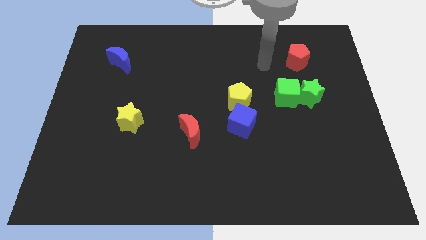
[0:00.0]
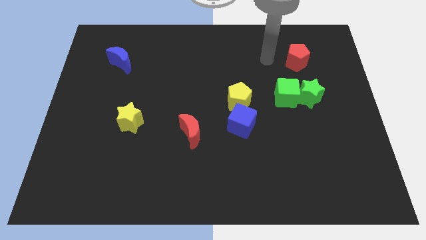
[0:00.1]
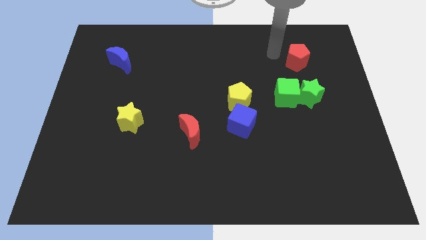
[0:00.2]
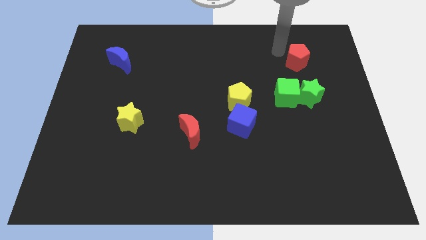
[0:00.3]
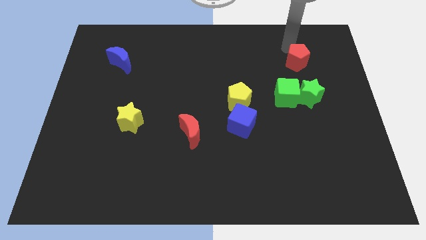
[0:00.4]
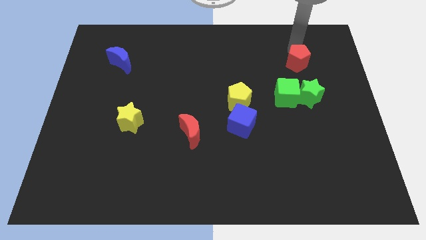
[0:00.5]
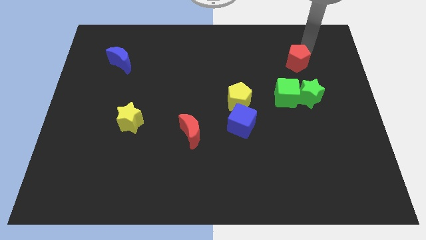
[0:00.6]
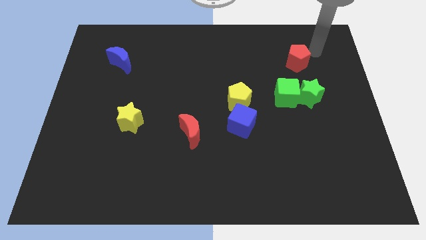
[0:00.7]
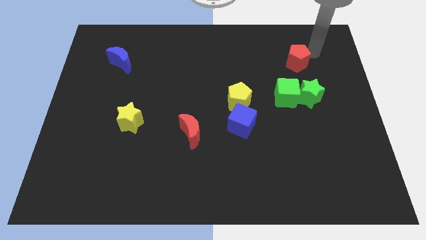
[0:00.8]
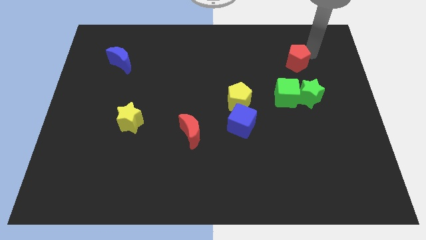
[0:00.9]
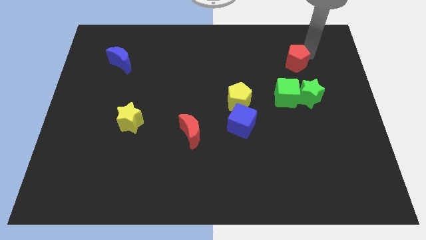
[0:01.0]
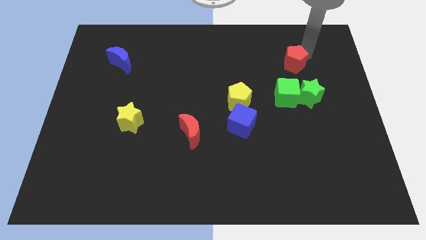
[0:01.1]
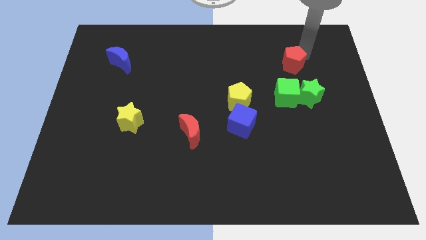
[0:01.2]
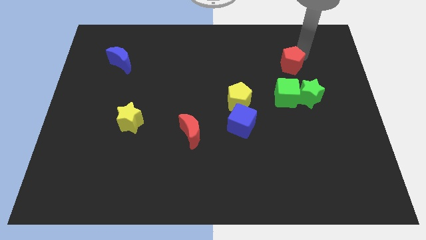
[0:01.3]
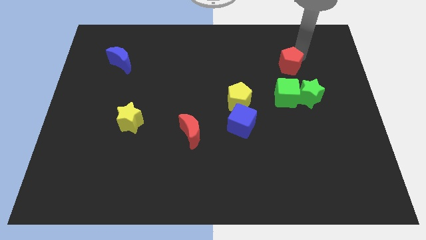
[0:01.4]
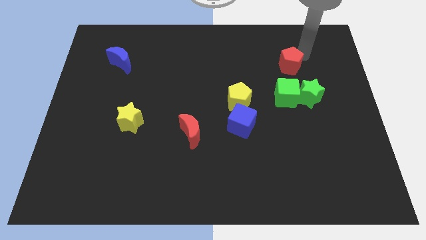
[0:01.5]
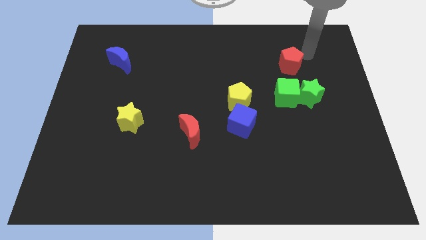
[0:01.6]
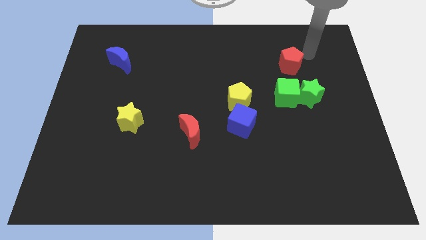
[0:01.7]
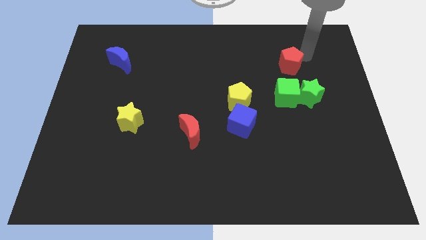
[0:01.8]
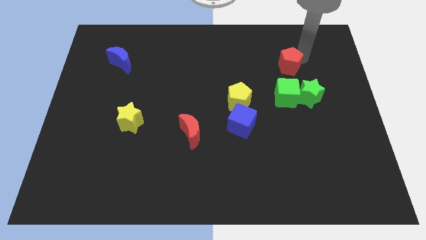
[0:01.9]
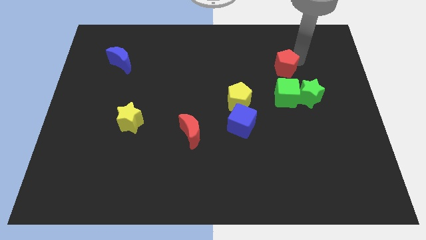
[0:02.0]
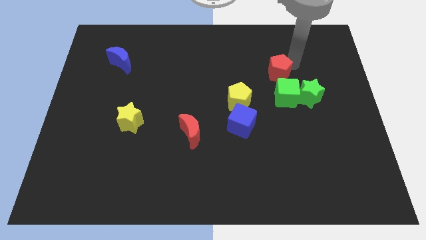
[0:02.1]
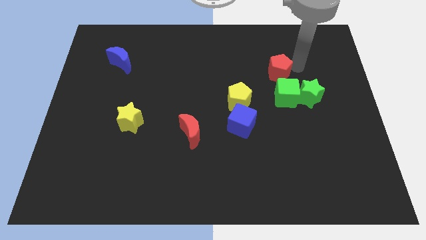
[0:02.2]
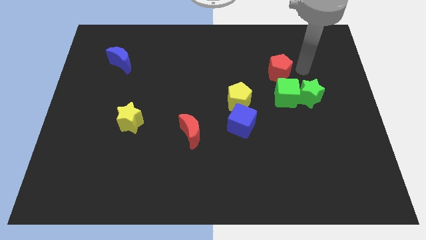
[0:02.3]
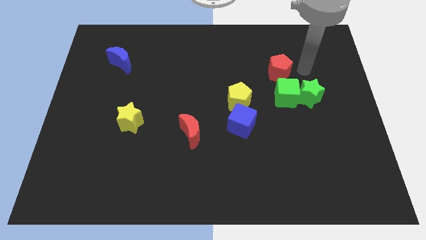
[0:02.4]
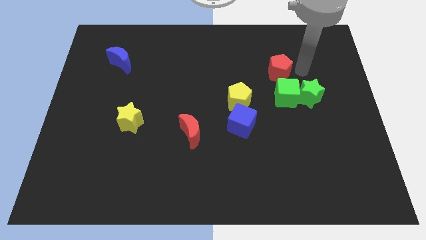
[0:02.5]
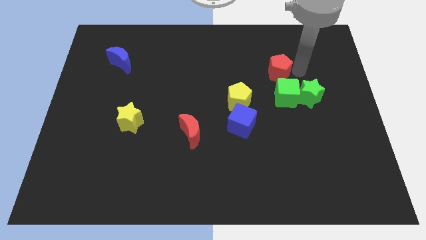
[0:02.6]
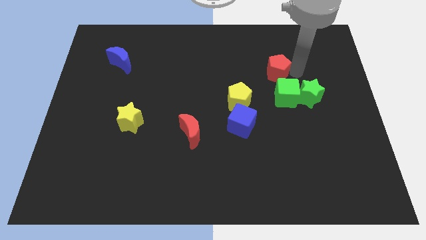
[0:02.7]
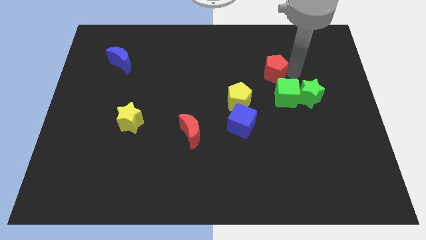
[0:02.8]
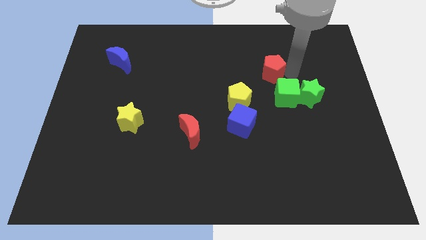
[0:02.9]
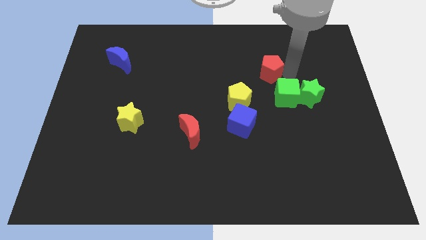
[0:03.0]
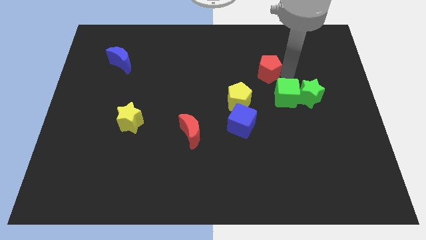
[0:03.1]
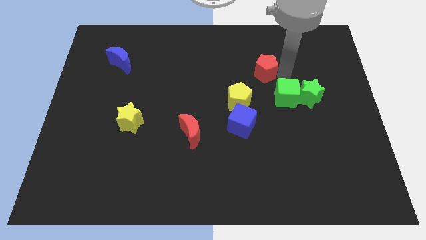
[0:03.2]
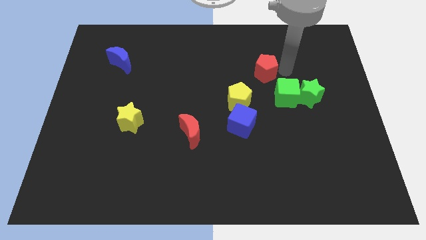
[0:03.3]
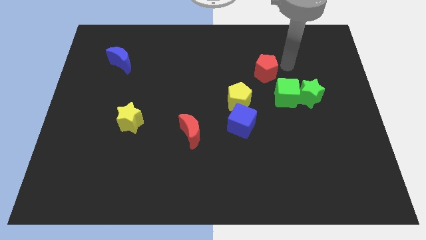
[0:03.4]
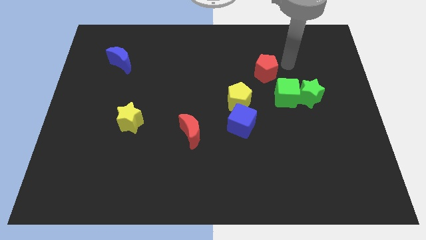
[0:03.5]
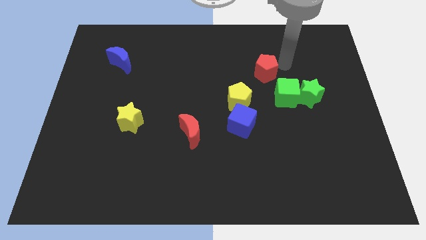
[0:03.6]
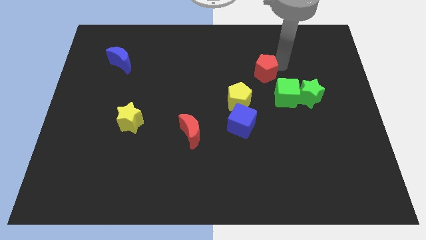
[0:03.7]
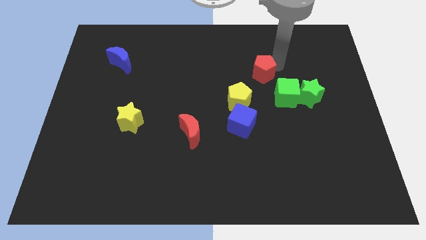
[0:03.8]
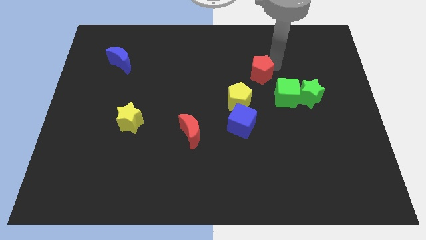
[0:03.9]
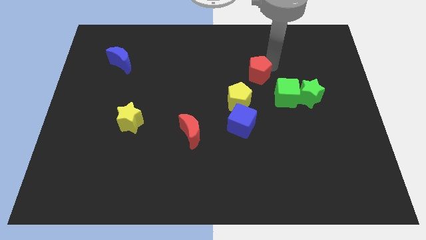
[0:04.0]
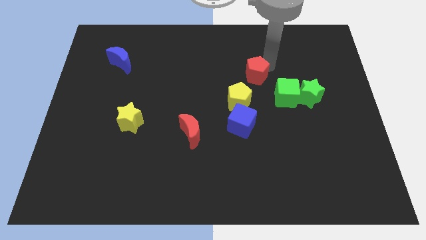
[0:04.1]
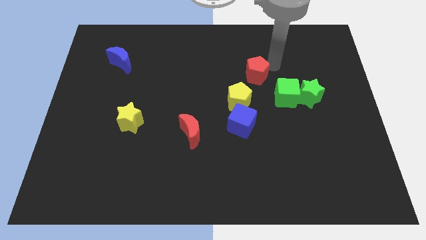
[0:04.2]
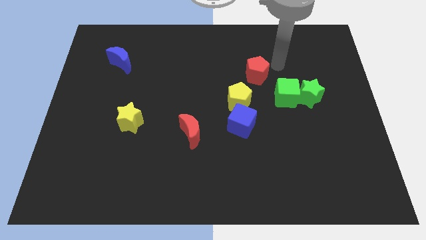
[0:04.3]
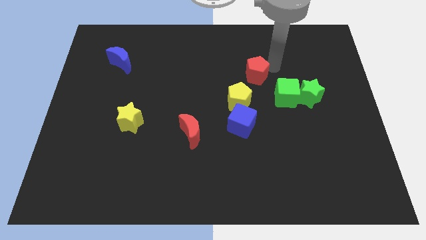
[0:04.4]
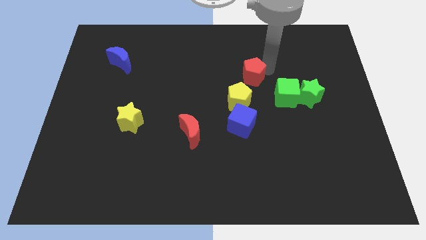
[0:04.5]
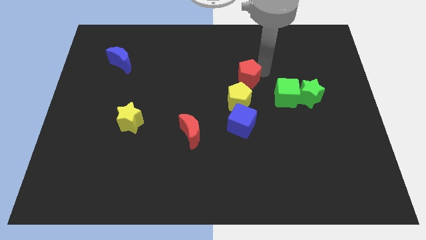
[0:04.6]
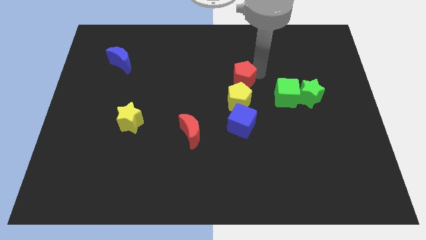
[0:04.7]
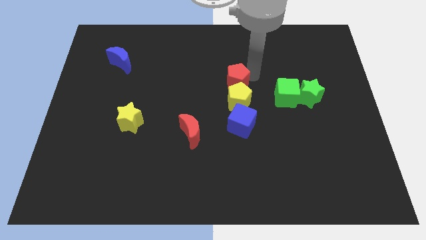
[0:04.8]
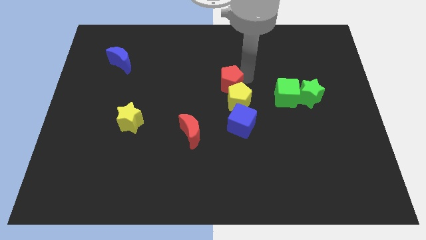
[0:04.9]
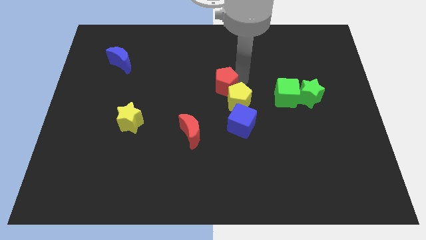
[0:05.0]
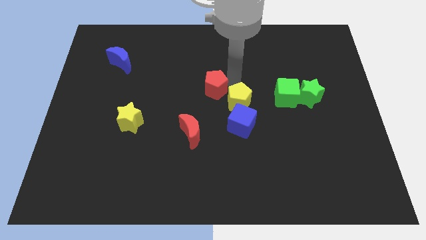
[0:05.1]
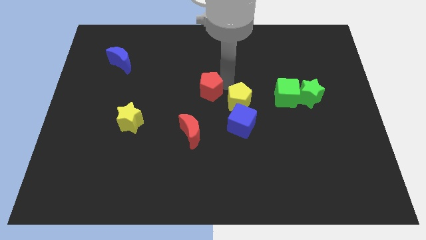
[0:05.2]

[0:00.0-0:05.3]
put the red pentagon to the top of the red moon

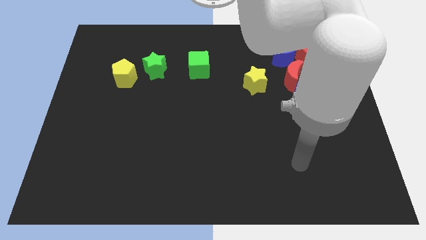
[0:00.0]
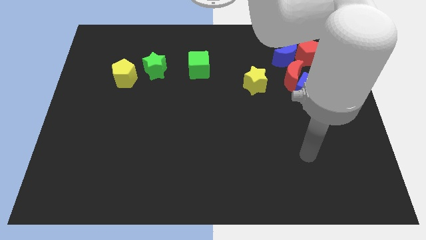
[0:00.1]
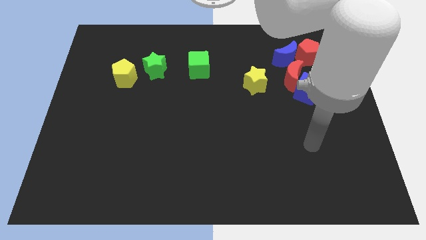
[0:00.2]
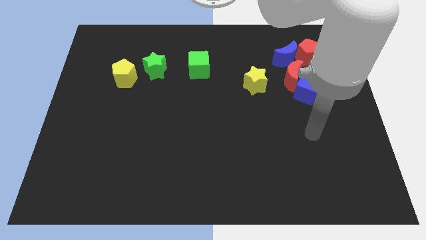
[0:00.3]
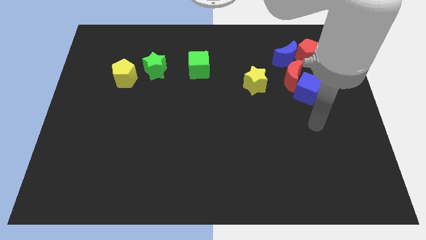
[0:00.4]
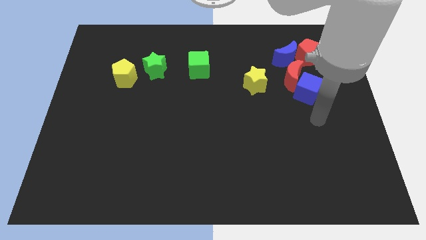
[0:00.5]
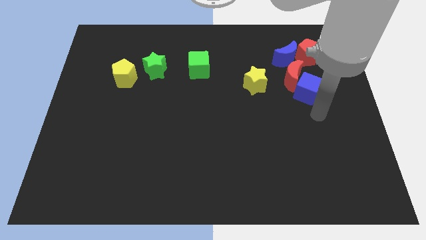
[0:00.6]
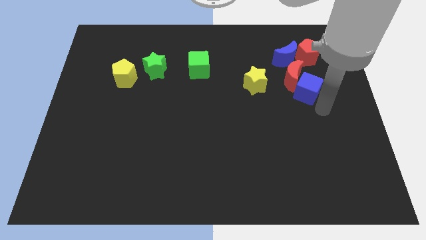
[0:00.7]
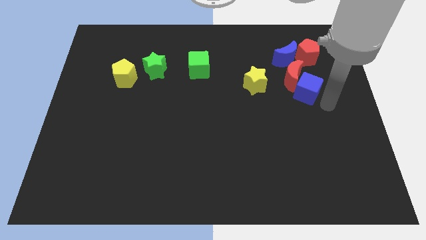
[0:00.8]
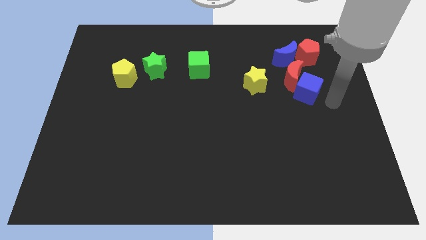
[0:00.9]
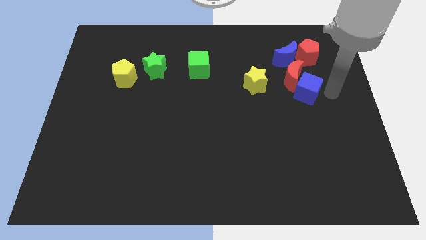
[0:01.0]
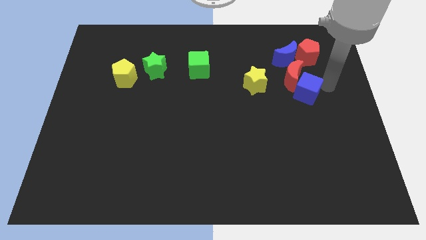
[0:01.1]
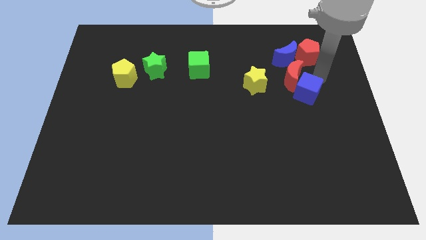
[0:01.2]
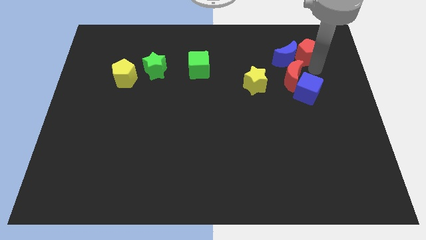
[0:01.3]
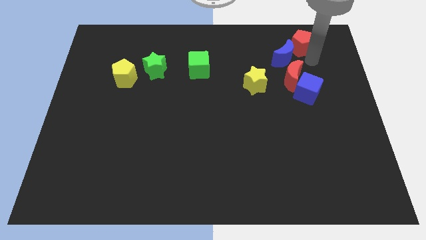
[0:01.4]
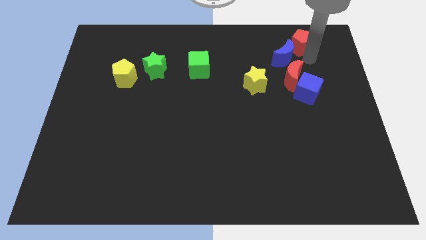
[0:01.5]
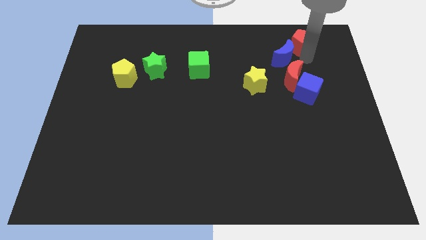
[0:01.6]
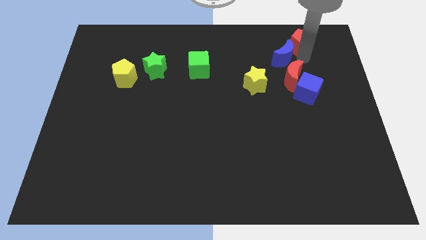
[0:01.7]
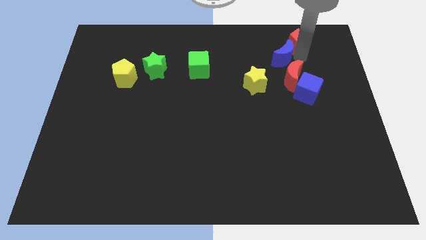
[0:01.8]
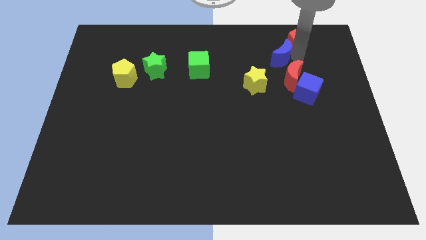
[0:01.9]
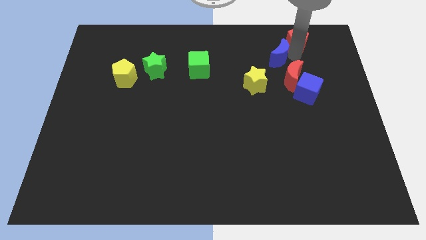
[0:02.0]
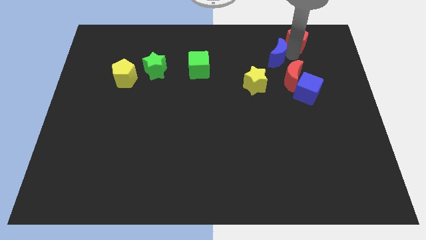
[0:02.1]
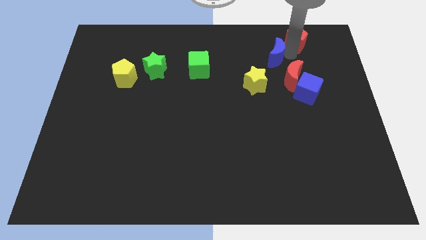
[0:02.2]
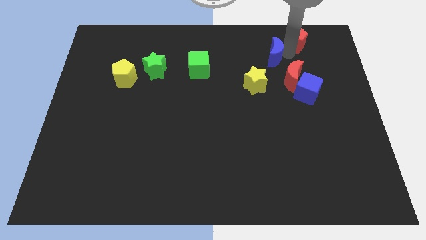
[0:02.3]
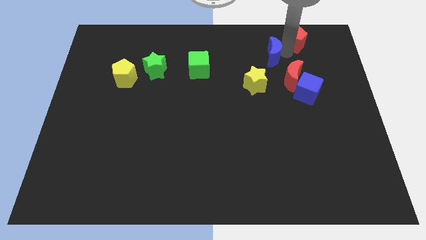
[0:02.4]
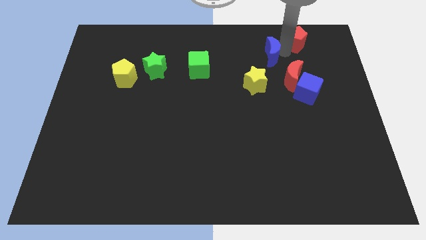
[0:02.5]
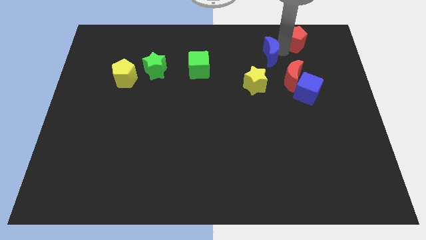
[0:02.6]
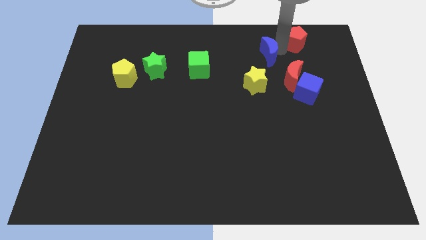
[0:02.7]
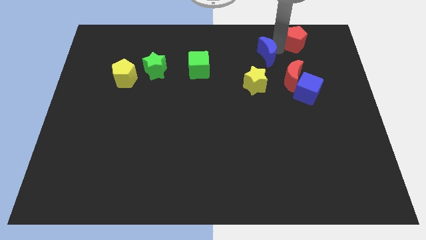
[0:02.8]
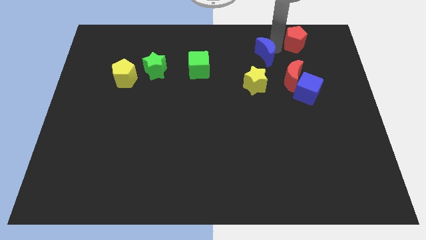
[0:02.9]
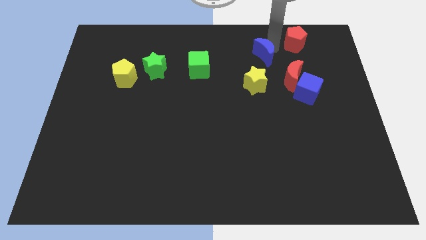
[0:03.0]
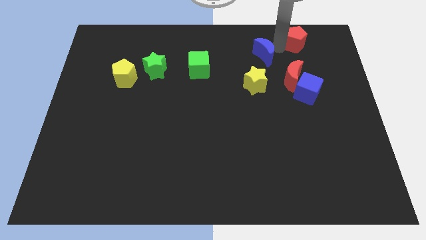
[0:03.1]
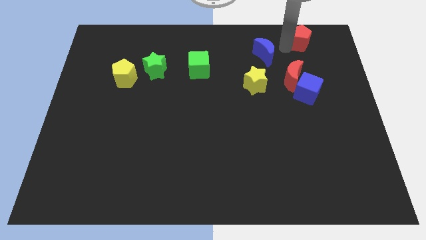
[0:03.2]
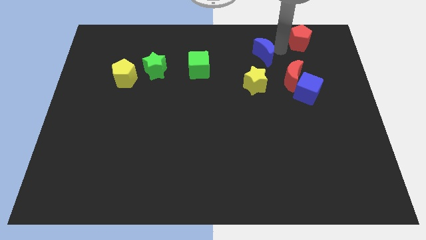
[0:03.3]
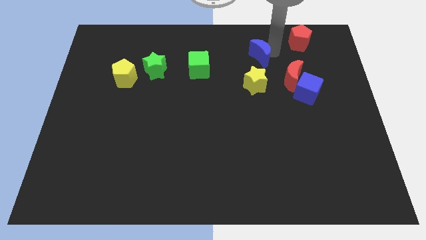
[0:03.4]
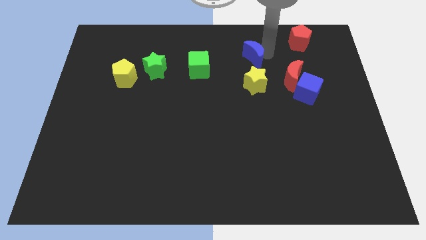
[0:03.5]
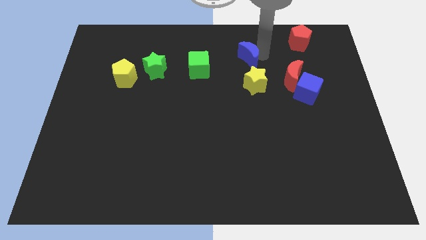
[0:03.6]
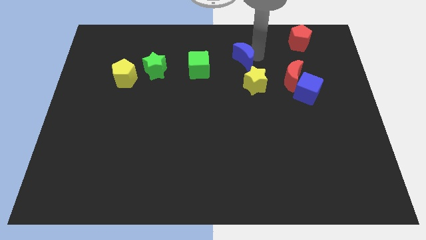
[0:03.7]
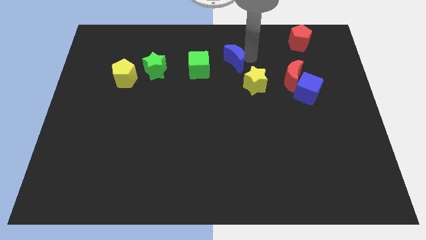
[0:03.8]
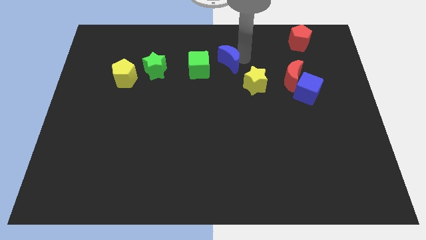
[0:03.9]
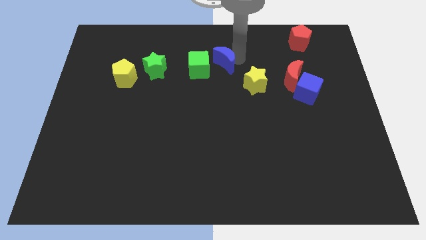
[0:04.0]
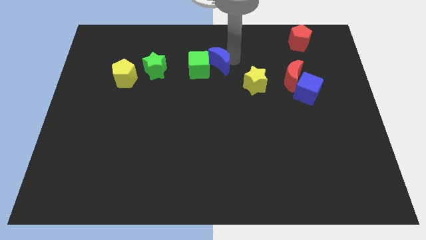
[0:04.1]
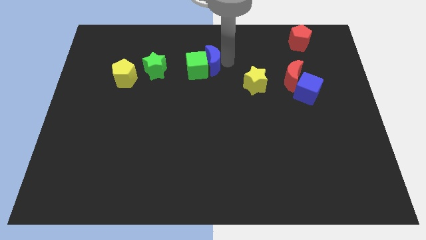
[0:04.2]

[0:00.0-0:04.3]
slide the blue moon right of the green star
